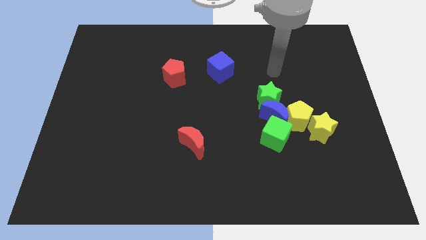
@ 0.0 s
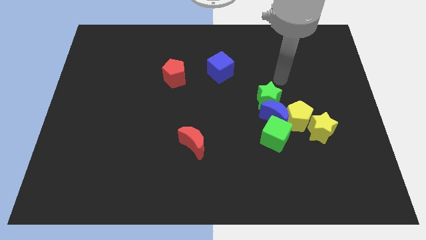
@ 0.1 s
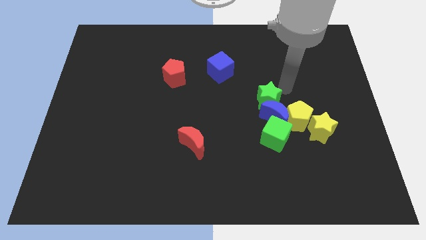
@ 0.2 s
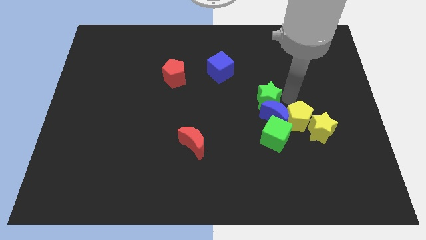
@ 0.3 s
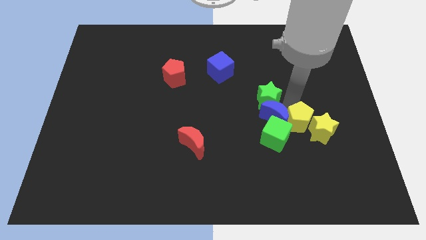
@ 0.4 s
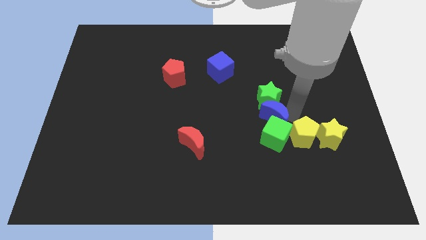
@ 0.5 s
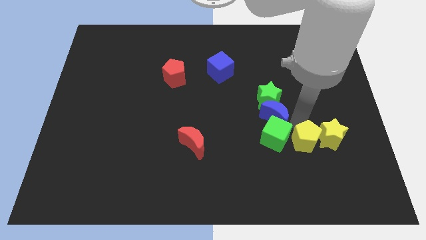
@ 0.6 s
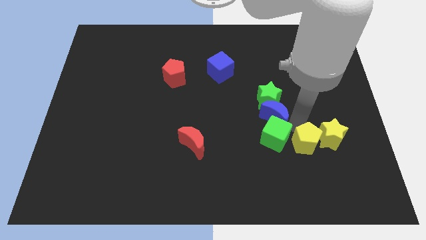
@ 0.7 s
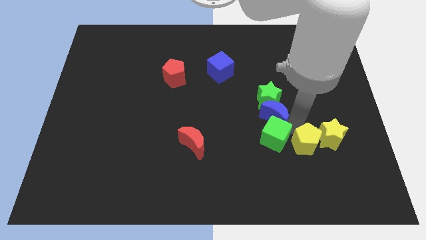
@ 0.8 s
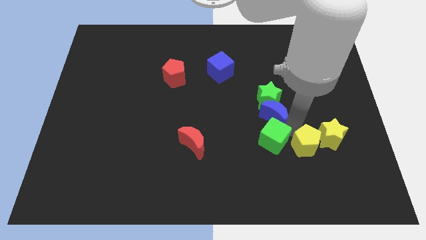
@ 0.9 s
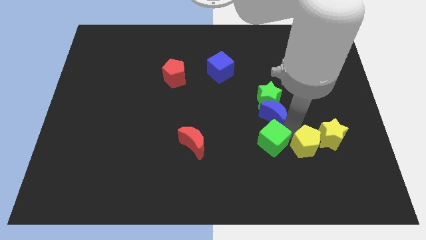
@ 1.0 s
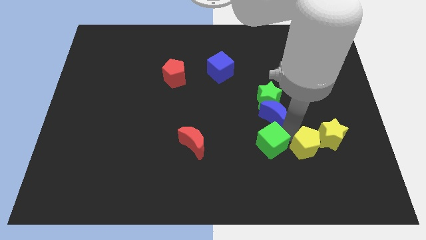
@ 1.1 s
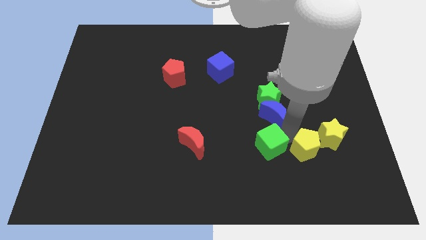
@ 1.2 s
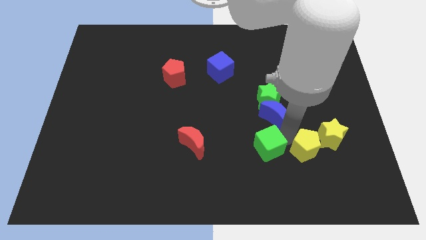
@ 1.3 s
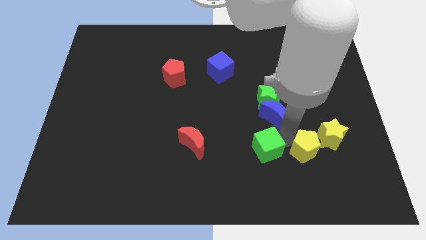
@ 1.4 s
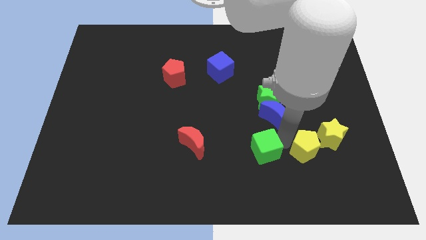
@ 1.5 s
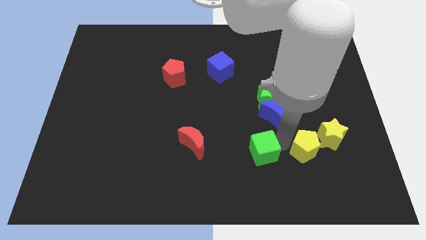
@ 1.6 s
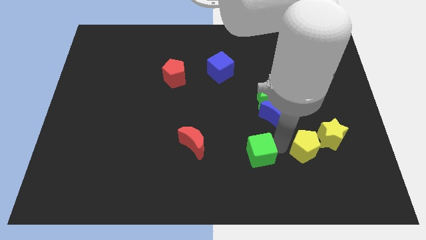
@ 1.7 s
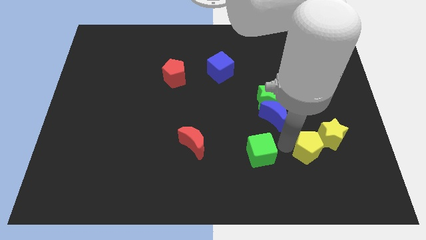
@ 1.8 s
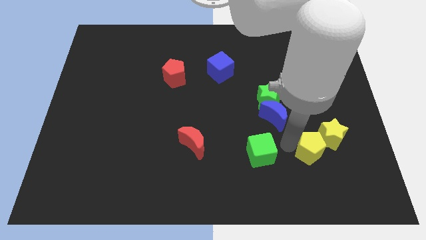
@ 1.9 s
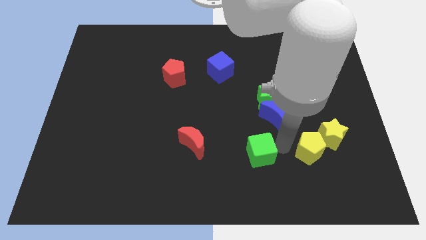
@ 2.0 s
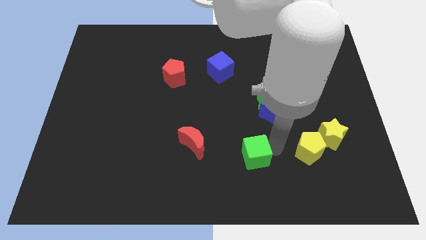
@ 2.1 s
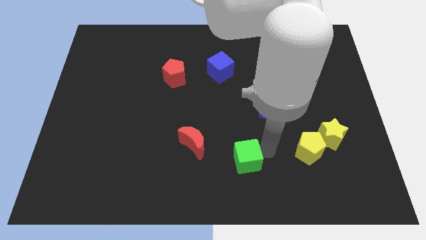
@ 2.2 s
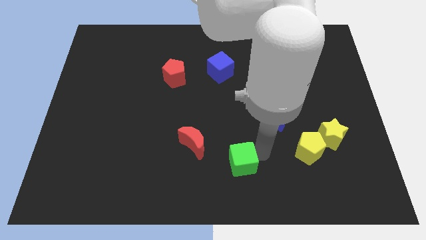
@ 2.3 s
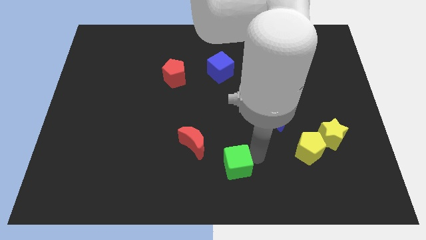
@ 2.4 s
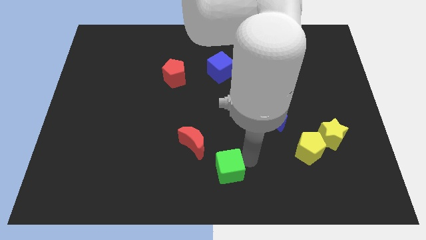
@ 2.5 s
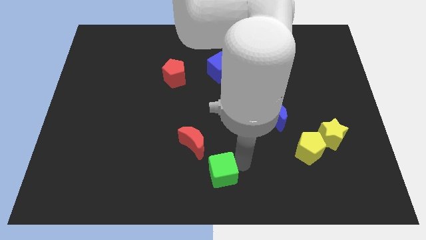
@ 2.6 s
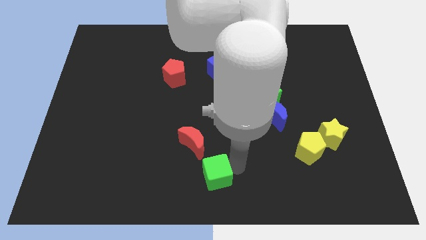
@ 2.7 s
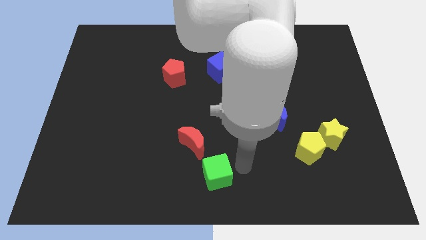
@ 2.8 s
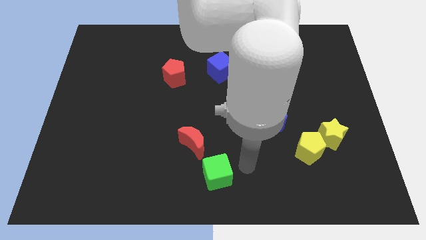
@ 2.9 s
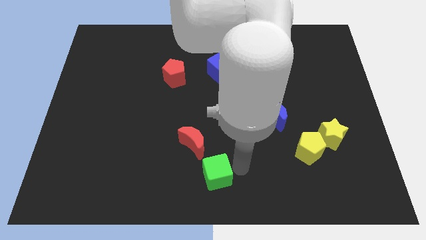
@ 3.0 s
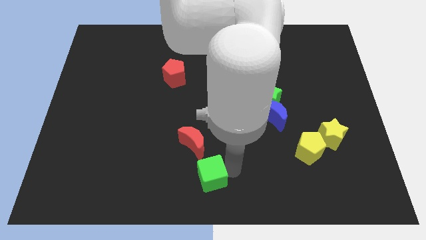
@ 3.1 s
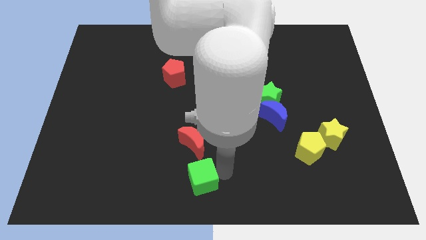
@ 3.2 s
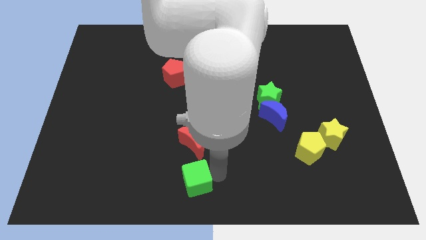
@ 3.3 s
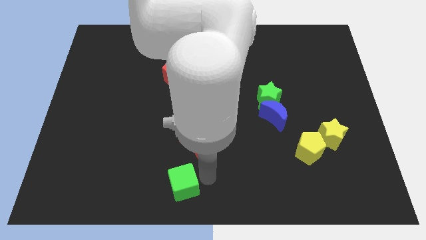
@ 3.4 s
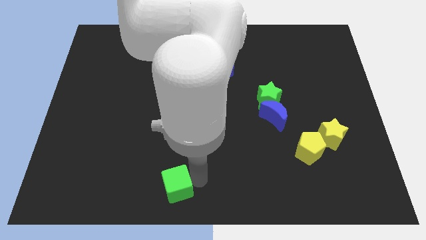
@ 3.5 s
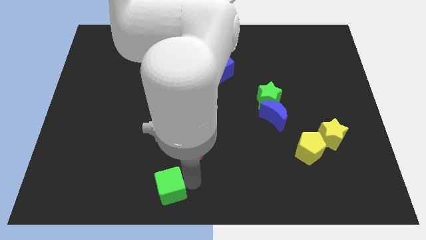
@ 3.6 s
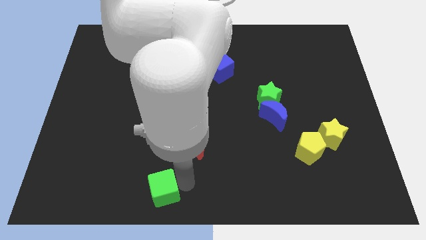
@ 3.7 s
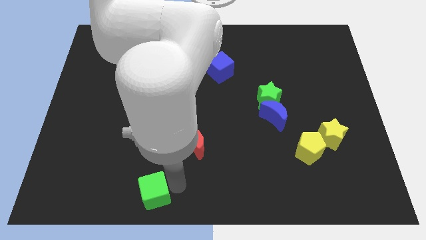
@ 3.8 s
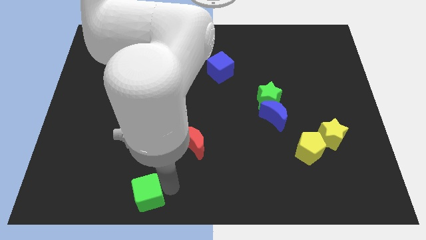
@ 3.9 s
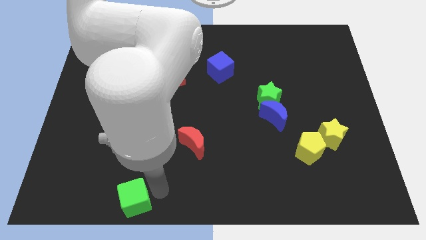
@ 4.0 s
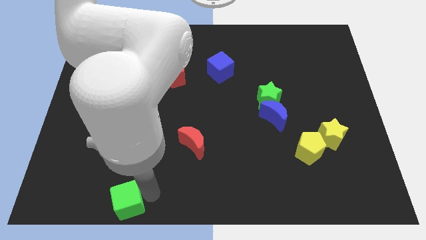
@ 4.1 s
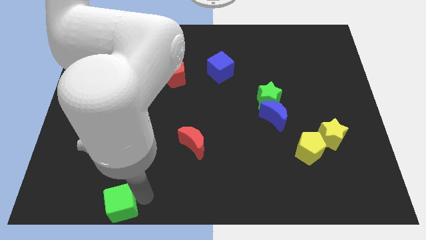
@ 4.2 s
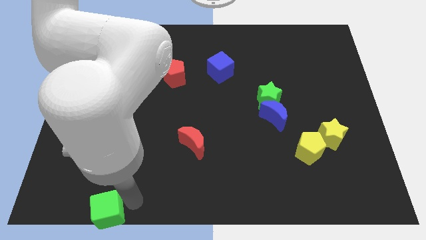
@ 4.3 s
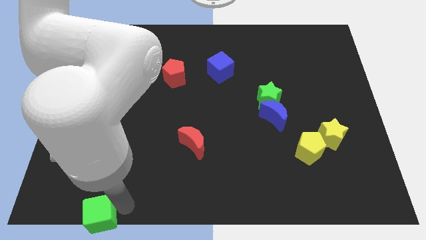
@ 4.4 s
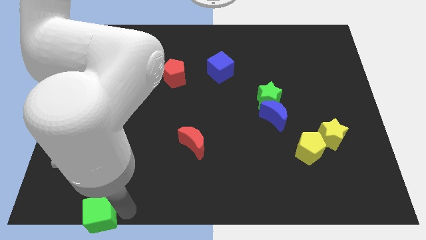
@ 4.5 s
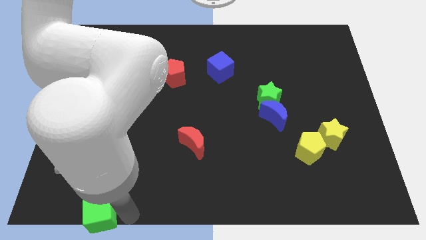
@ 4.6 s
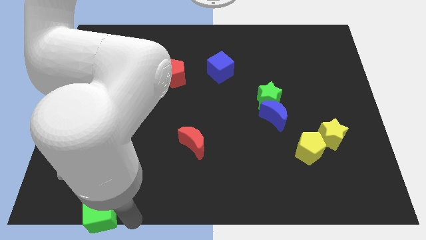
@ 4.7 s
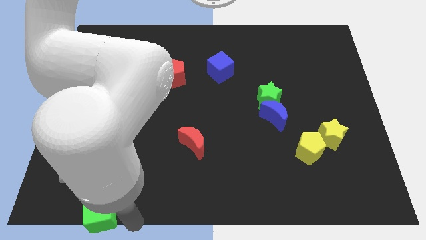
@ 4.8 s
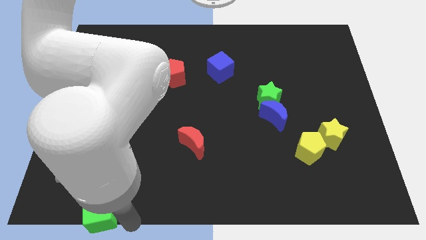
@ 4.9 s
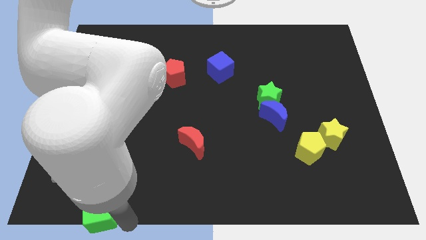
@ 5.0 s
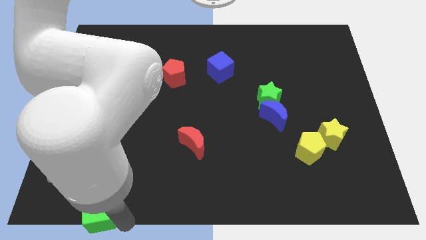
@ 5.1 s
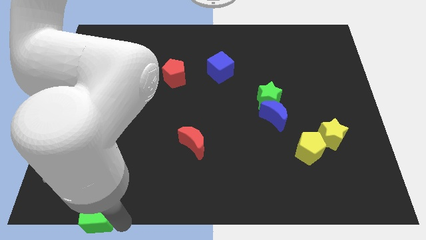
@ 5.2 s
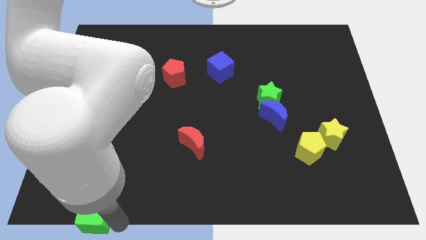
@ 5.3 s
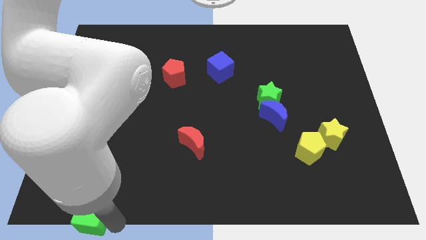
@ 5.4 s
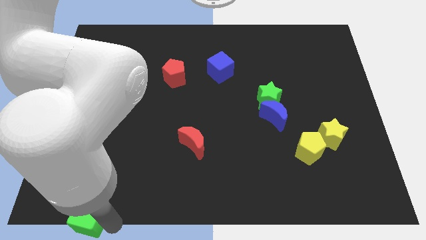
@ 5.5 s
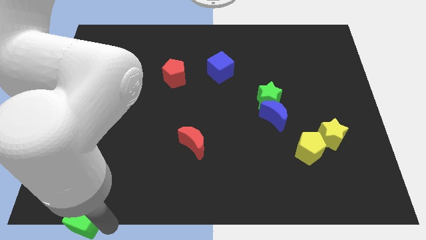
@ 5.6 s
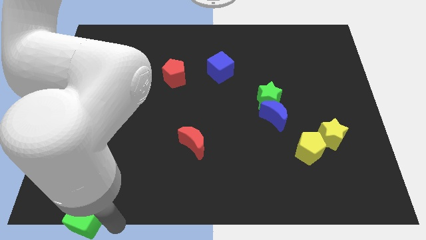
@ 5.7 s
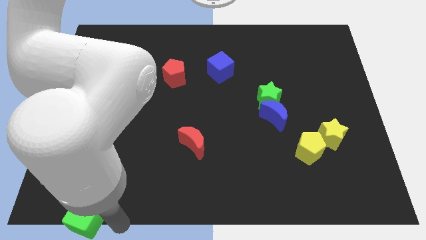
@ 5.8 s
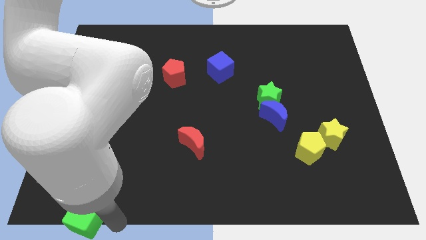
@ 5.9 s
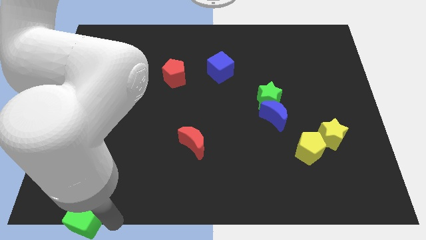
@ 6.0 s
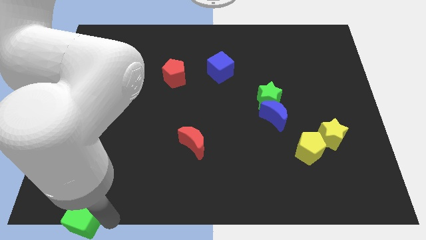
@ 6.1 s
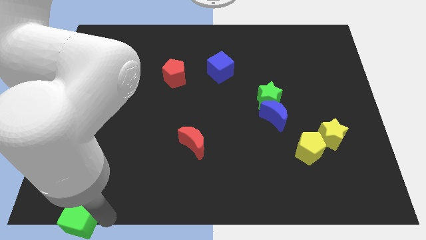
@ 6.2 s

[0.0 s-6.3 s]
slide the green cube to the lower left corner

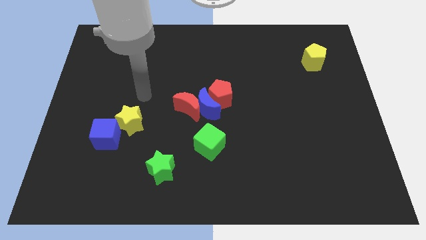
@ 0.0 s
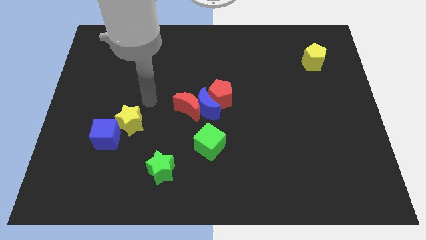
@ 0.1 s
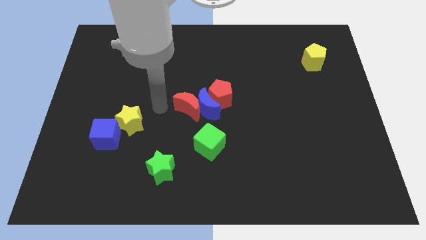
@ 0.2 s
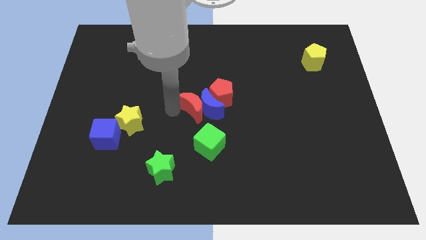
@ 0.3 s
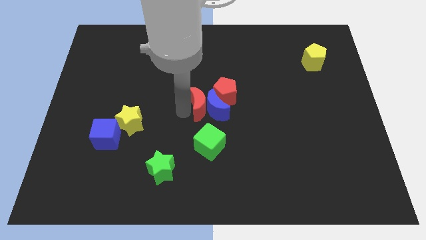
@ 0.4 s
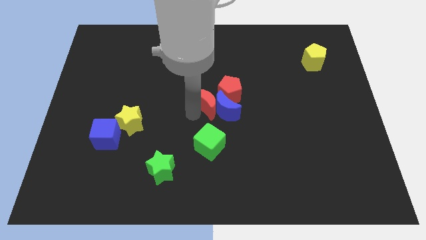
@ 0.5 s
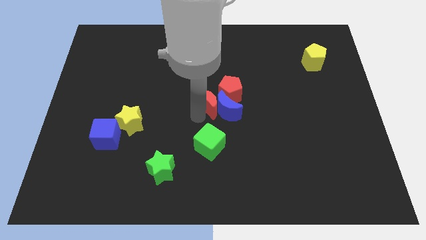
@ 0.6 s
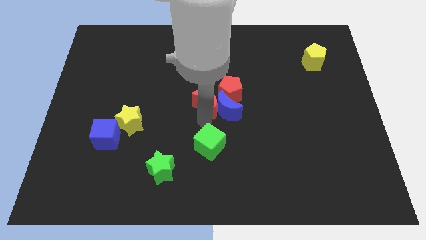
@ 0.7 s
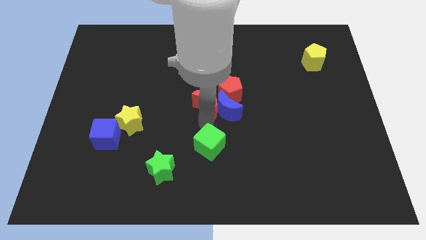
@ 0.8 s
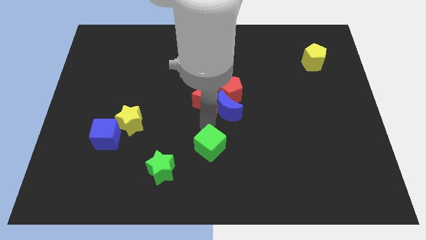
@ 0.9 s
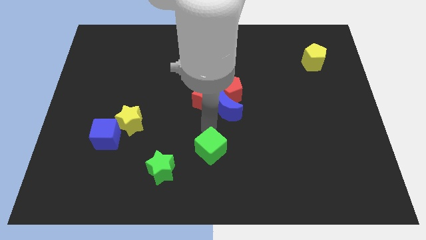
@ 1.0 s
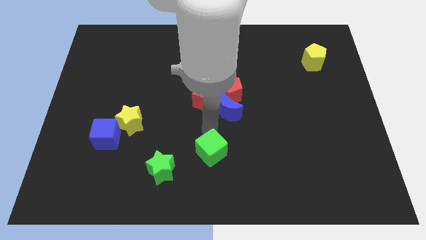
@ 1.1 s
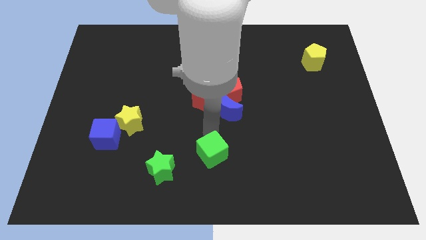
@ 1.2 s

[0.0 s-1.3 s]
move the green cube to the bottom side
